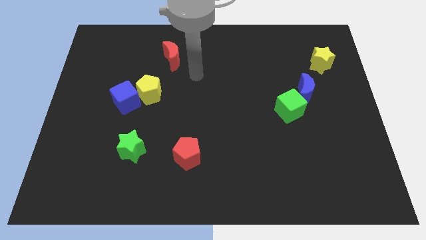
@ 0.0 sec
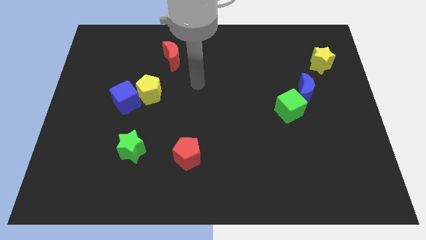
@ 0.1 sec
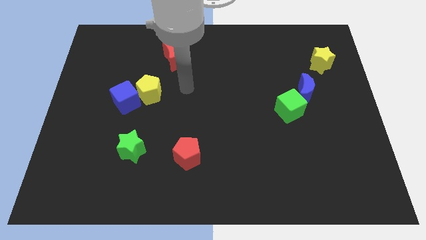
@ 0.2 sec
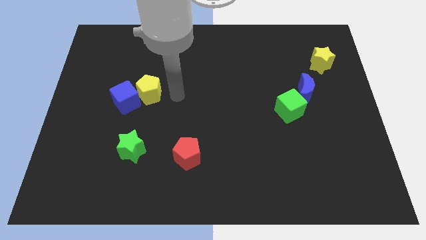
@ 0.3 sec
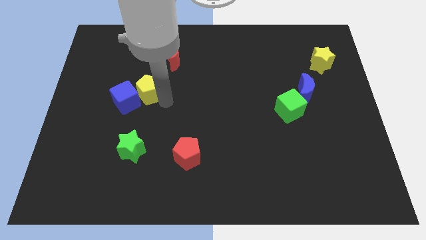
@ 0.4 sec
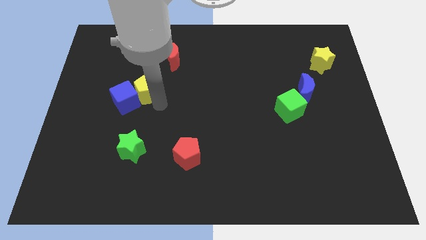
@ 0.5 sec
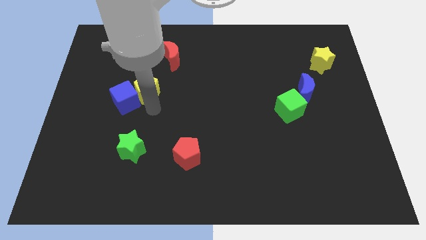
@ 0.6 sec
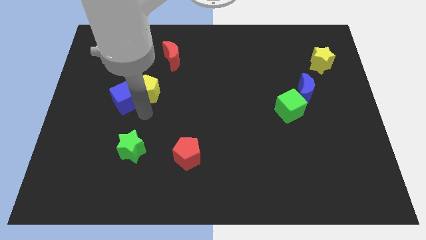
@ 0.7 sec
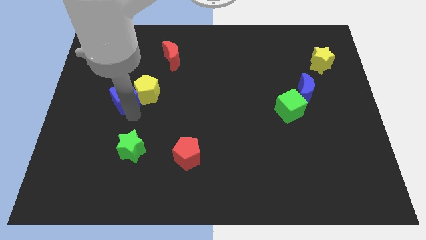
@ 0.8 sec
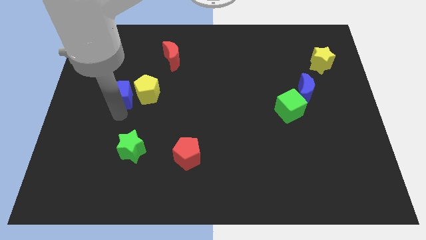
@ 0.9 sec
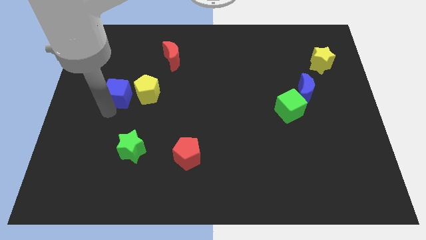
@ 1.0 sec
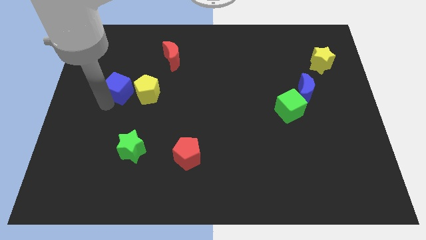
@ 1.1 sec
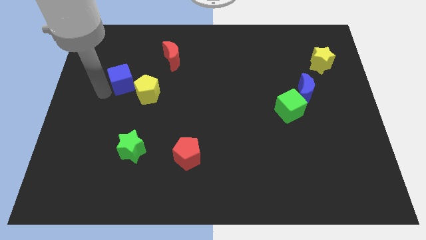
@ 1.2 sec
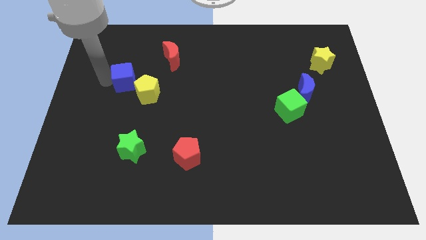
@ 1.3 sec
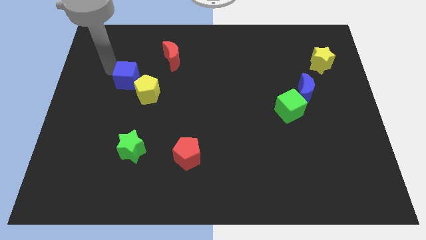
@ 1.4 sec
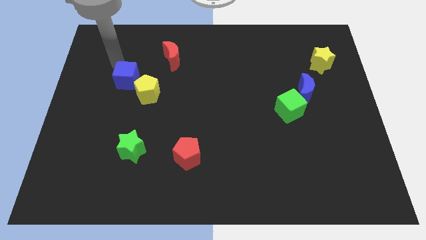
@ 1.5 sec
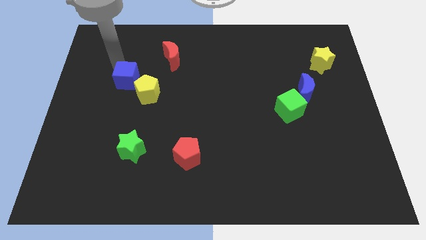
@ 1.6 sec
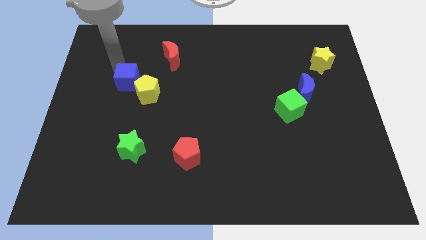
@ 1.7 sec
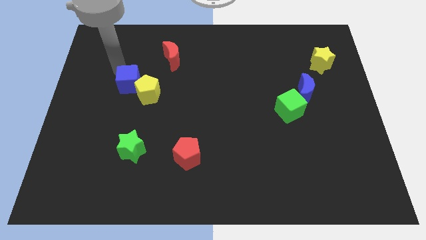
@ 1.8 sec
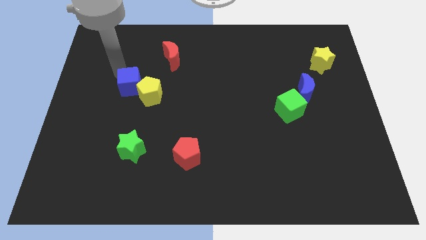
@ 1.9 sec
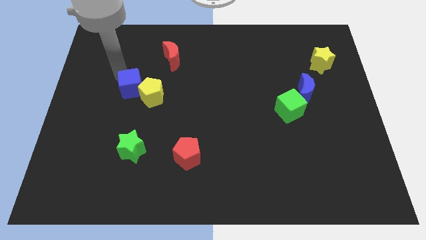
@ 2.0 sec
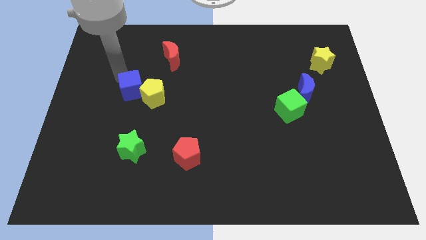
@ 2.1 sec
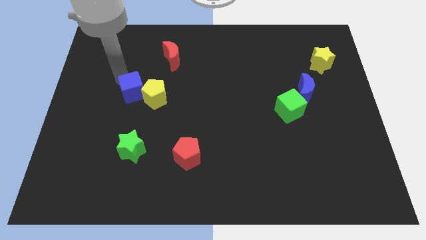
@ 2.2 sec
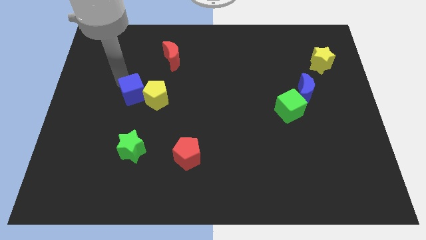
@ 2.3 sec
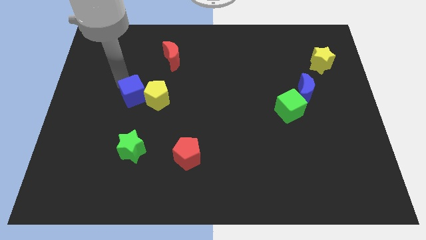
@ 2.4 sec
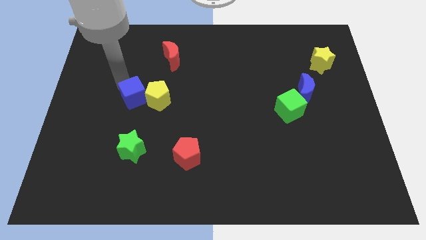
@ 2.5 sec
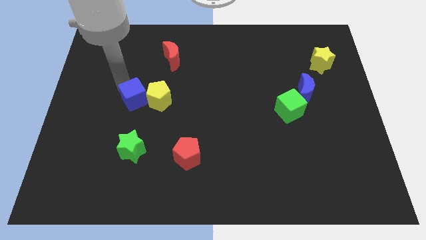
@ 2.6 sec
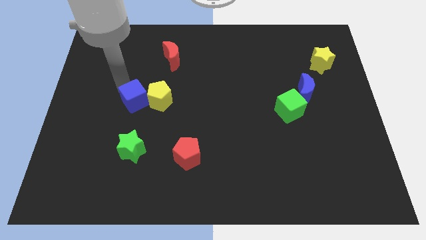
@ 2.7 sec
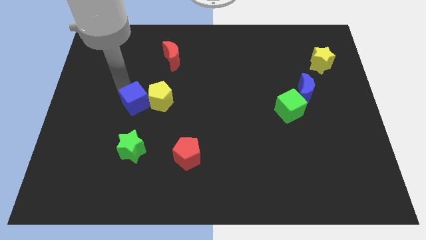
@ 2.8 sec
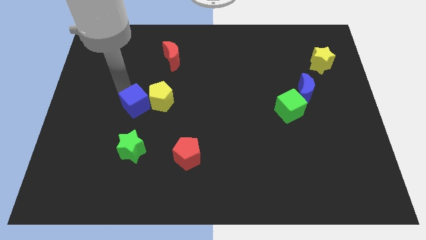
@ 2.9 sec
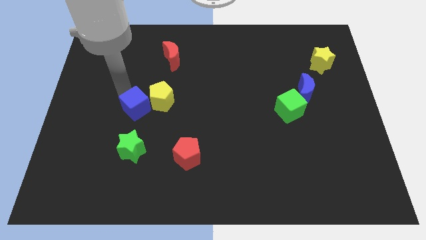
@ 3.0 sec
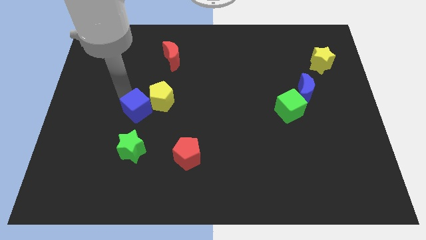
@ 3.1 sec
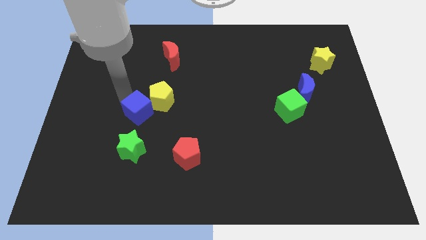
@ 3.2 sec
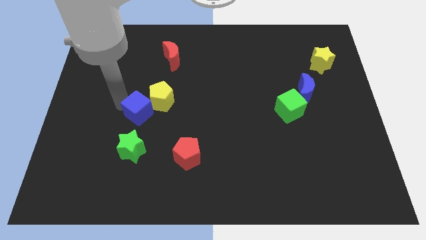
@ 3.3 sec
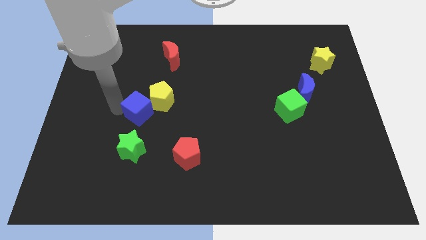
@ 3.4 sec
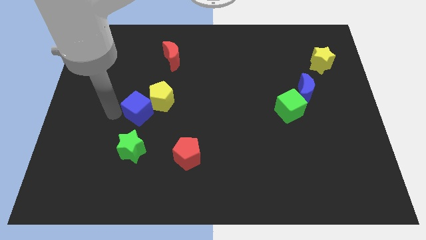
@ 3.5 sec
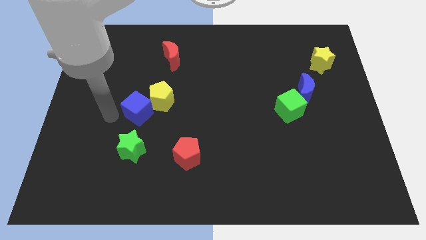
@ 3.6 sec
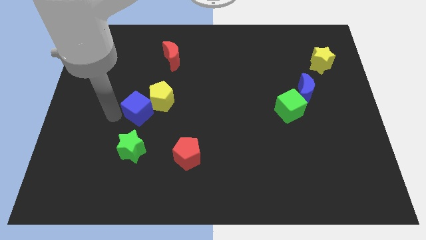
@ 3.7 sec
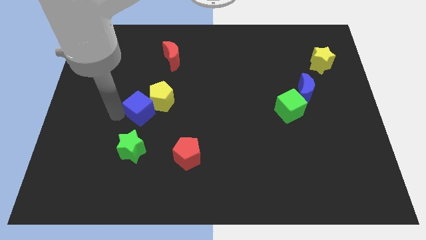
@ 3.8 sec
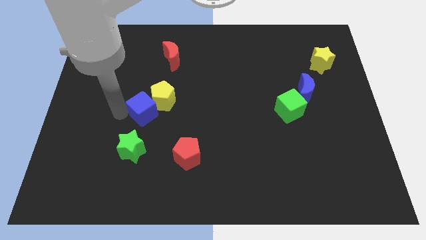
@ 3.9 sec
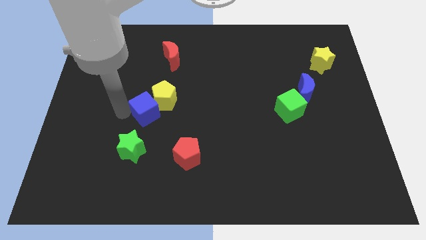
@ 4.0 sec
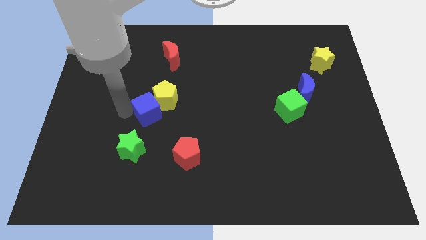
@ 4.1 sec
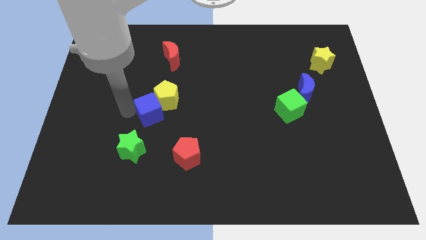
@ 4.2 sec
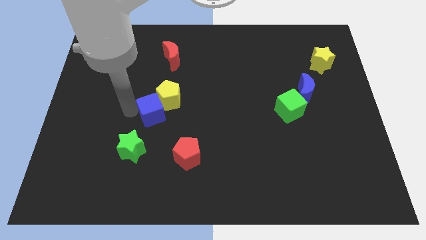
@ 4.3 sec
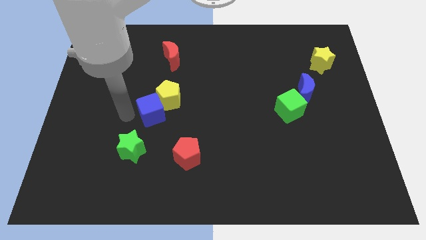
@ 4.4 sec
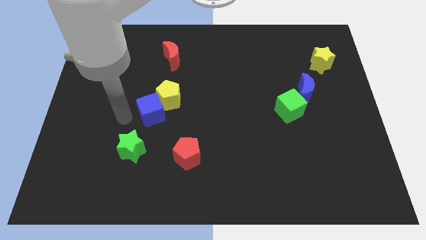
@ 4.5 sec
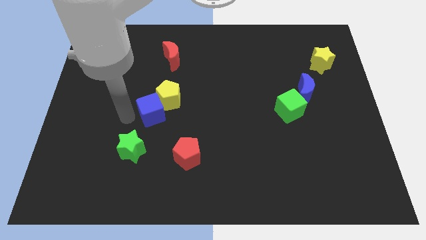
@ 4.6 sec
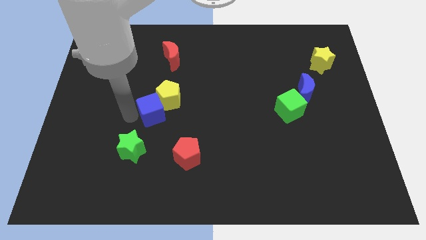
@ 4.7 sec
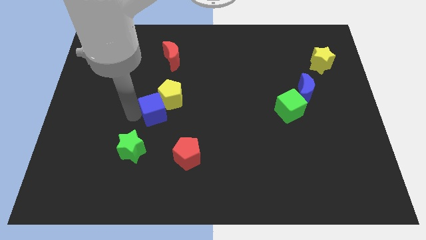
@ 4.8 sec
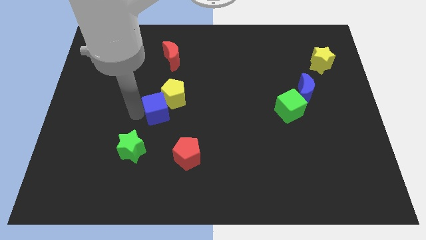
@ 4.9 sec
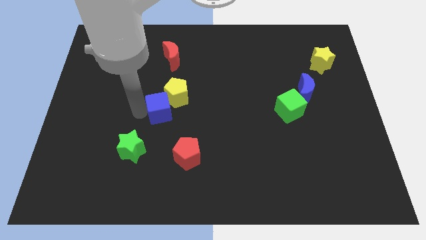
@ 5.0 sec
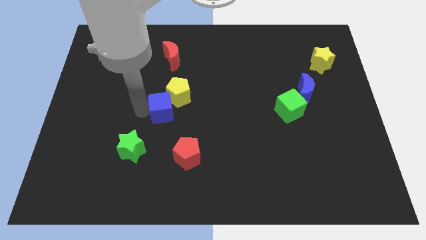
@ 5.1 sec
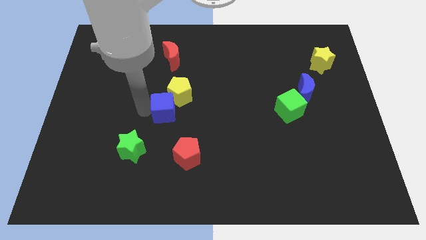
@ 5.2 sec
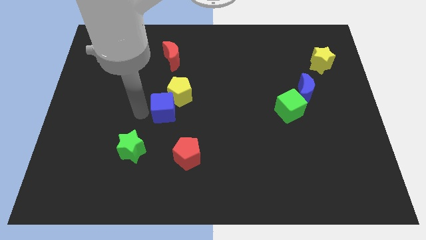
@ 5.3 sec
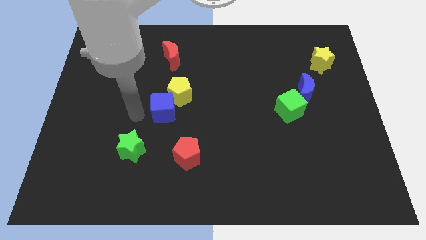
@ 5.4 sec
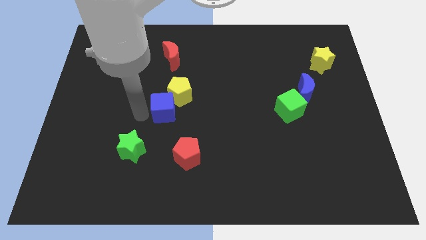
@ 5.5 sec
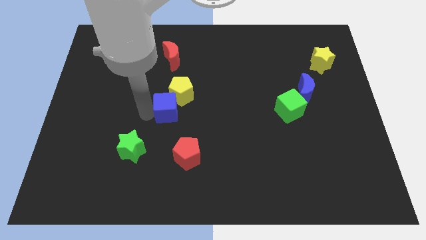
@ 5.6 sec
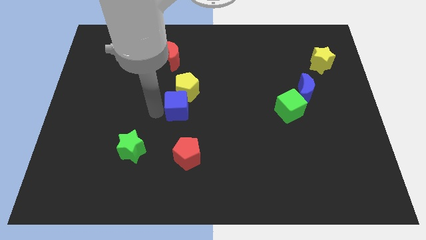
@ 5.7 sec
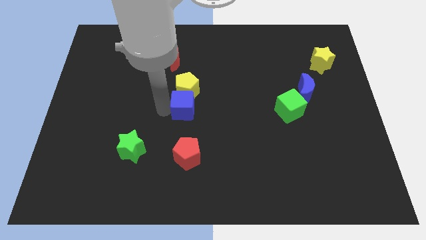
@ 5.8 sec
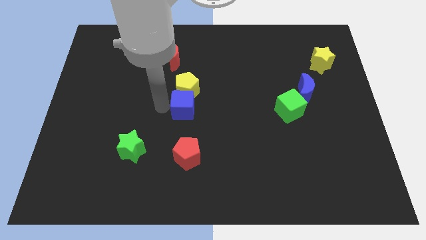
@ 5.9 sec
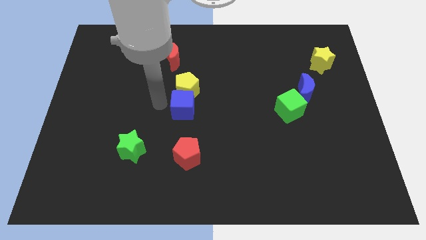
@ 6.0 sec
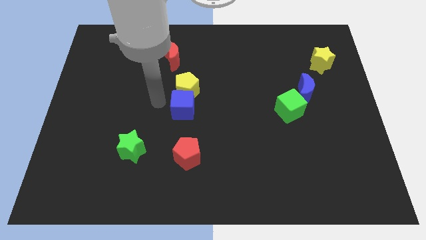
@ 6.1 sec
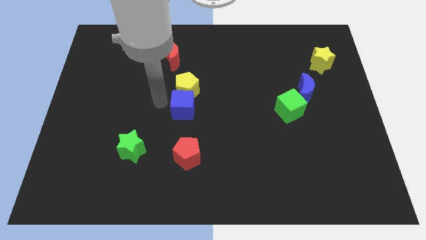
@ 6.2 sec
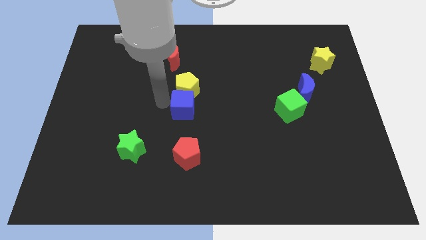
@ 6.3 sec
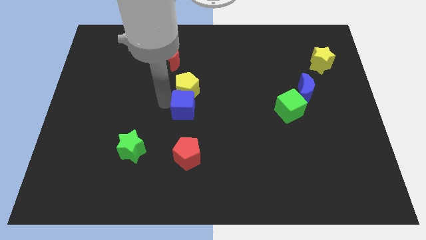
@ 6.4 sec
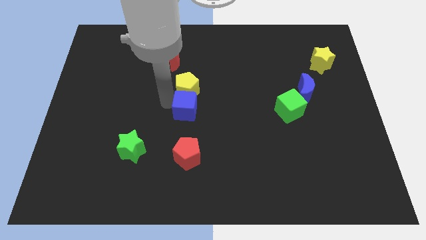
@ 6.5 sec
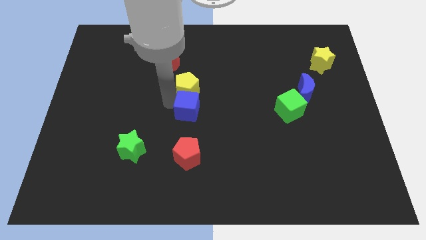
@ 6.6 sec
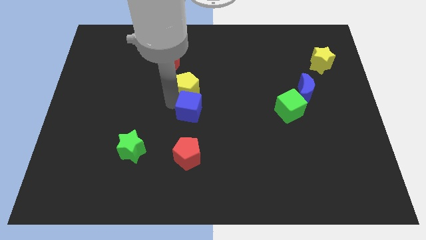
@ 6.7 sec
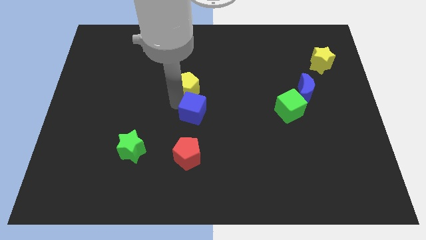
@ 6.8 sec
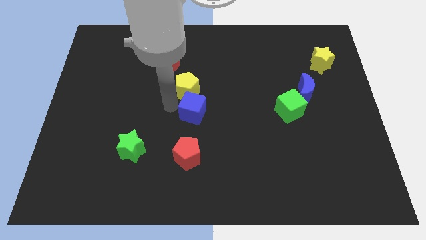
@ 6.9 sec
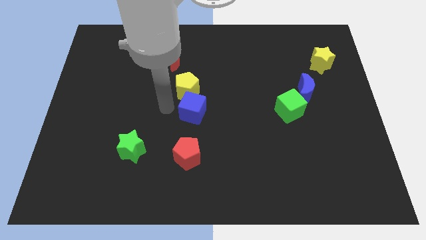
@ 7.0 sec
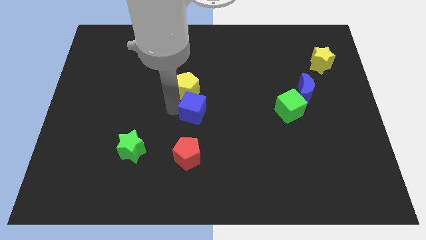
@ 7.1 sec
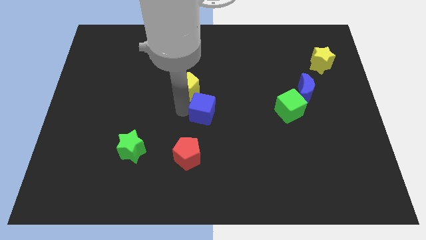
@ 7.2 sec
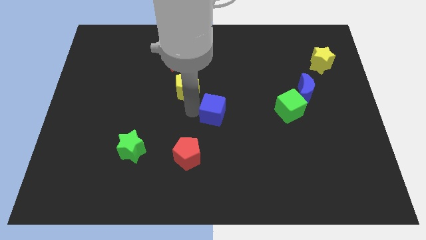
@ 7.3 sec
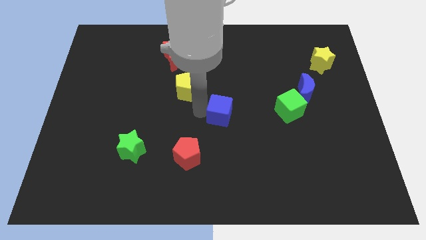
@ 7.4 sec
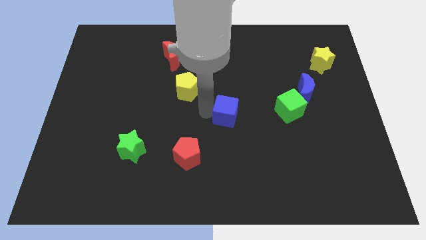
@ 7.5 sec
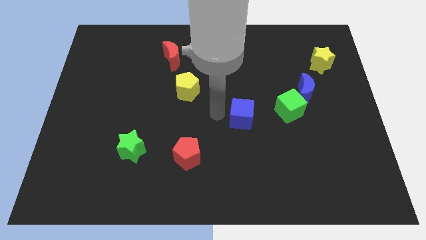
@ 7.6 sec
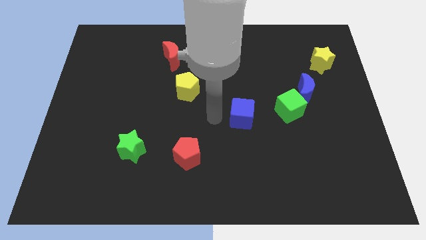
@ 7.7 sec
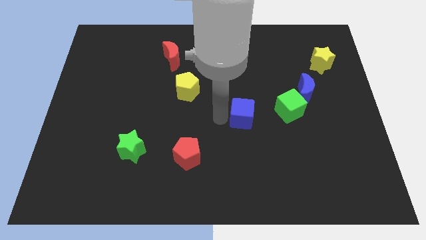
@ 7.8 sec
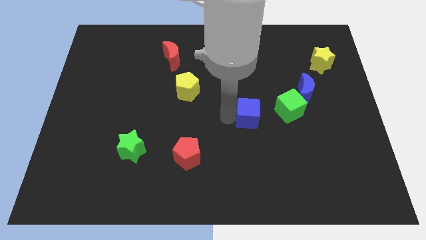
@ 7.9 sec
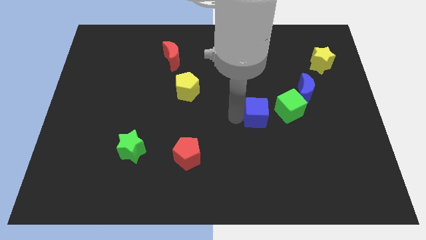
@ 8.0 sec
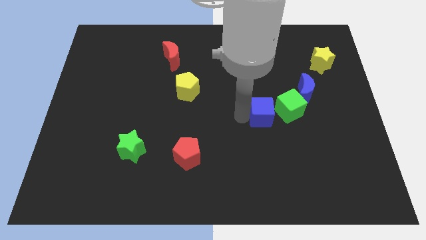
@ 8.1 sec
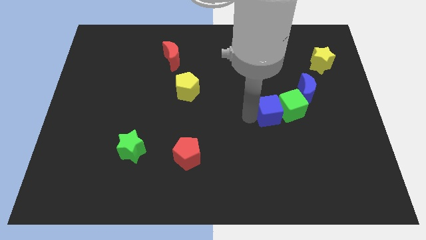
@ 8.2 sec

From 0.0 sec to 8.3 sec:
slide the blue cube close to the green cube
